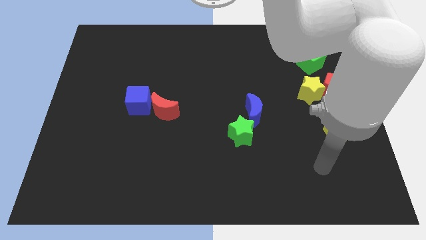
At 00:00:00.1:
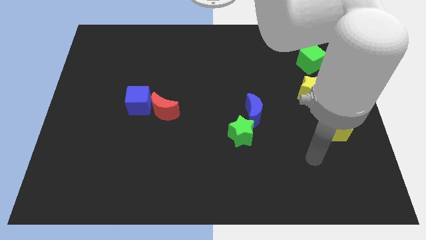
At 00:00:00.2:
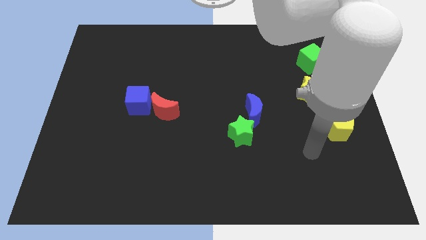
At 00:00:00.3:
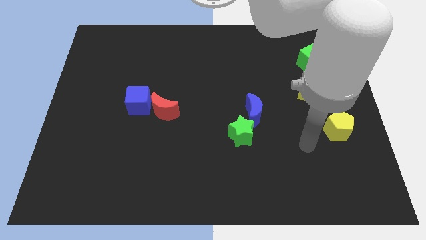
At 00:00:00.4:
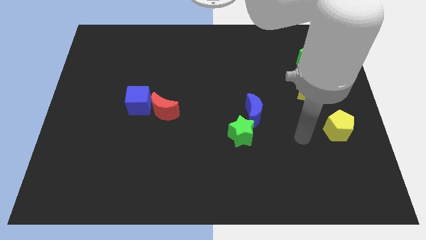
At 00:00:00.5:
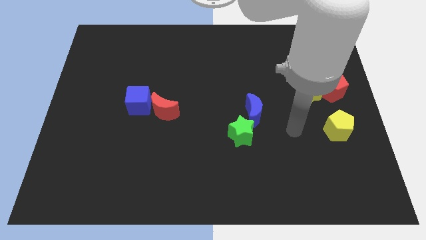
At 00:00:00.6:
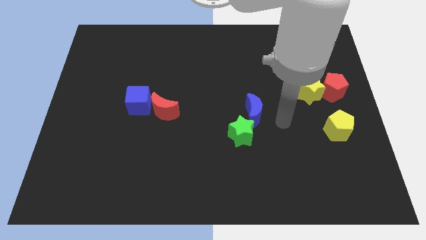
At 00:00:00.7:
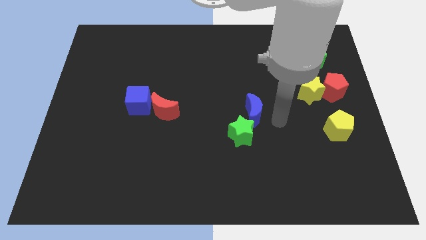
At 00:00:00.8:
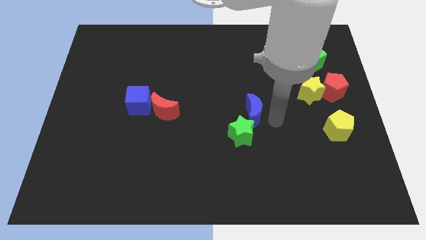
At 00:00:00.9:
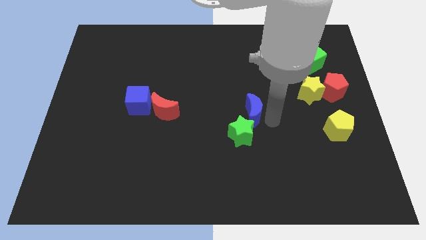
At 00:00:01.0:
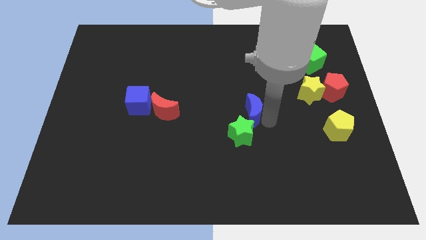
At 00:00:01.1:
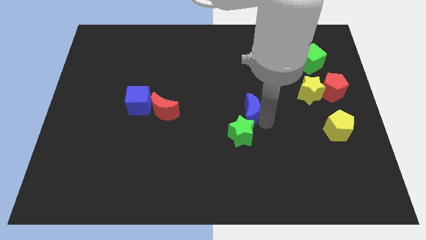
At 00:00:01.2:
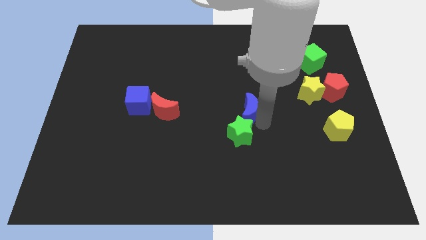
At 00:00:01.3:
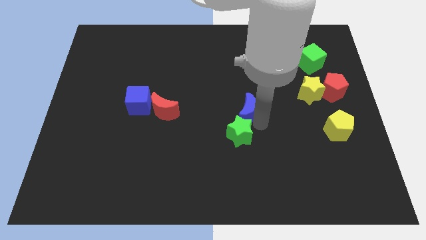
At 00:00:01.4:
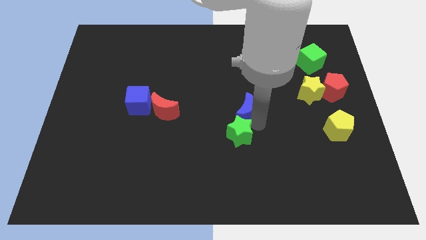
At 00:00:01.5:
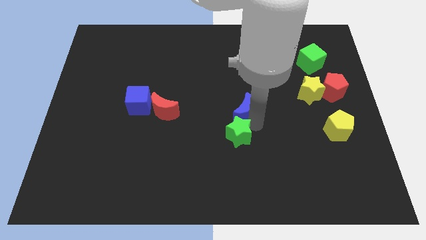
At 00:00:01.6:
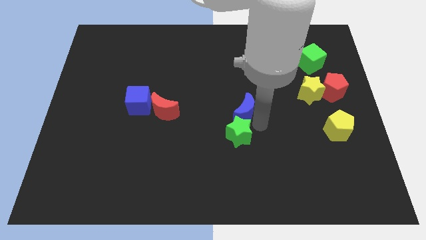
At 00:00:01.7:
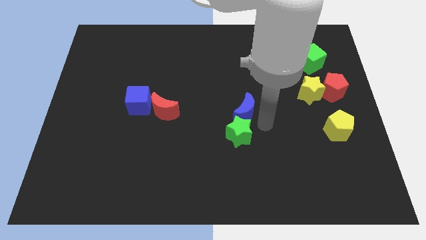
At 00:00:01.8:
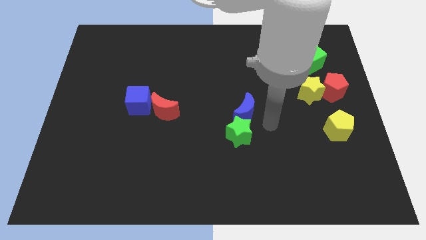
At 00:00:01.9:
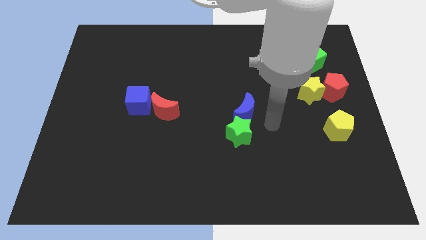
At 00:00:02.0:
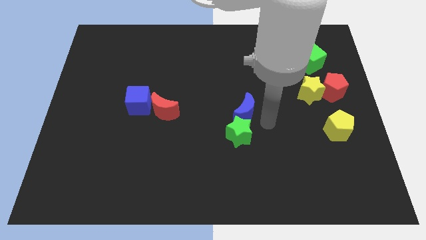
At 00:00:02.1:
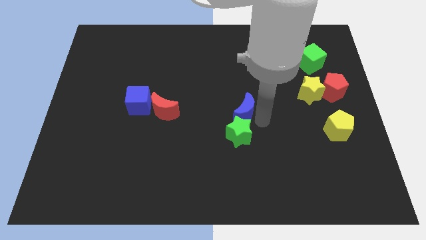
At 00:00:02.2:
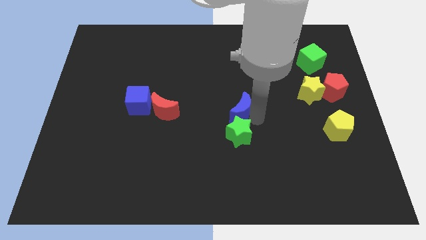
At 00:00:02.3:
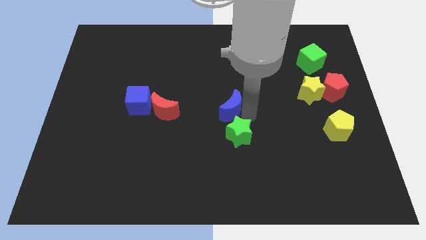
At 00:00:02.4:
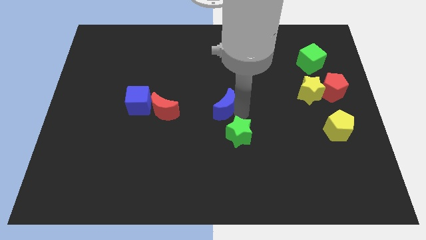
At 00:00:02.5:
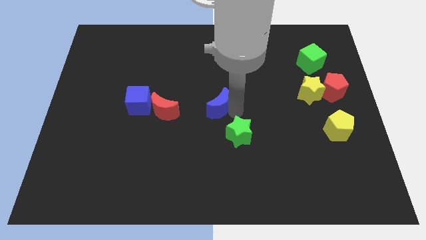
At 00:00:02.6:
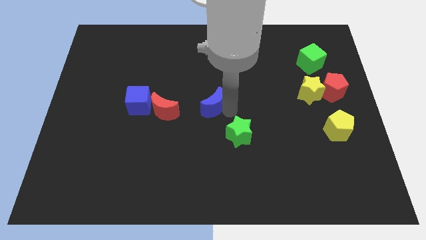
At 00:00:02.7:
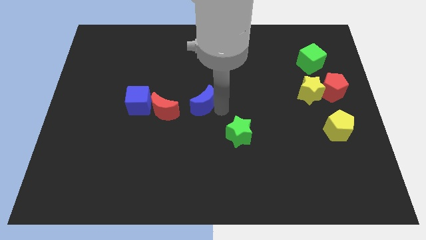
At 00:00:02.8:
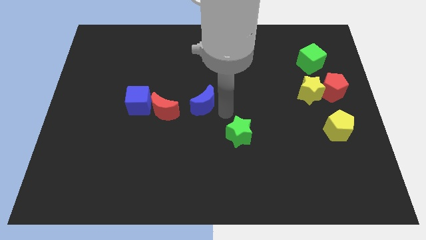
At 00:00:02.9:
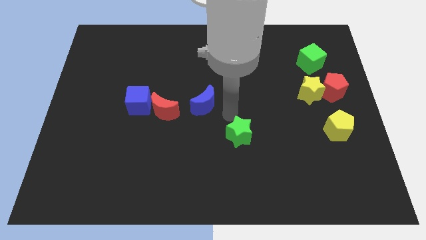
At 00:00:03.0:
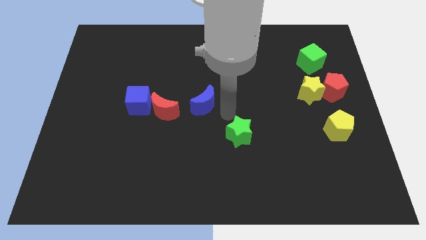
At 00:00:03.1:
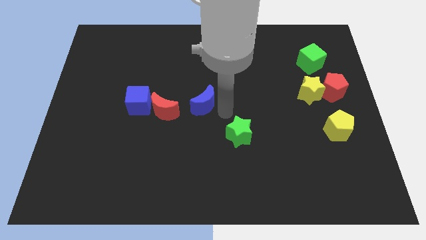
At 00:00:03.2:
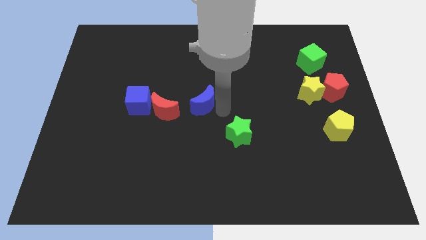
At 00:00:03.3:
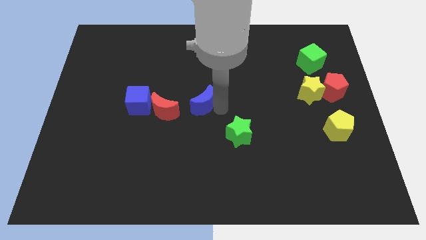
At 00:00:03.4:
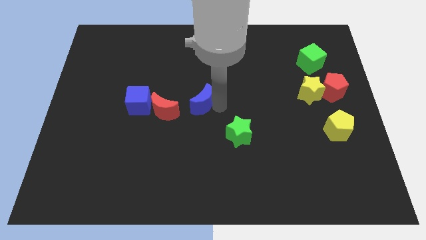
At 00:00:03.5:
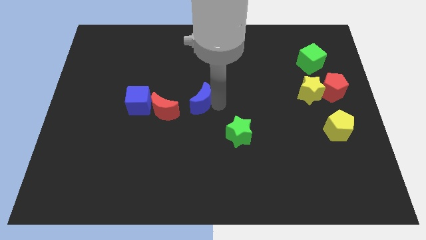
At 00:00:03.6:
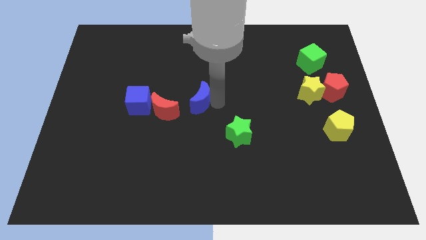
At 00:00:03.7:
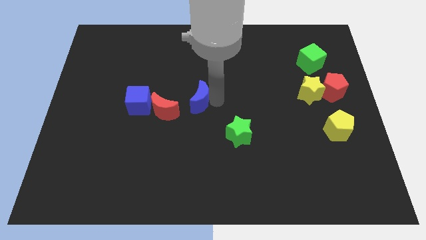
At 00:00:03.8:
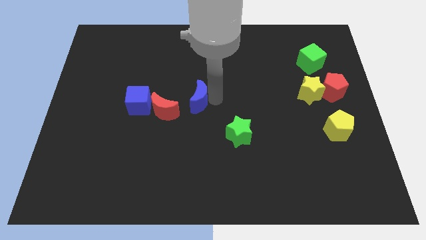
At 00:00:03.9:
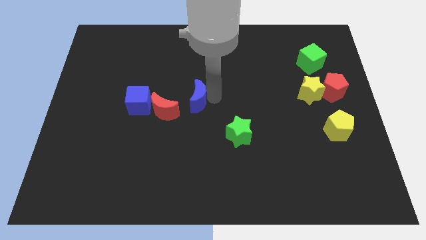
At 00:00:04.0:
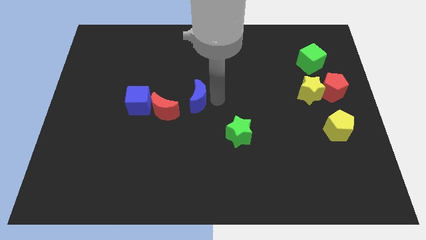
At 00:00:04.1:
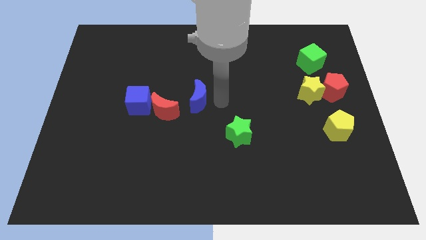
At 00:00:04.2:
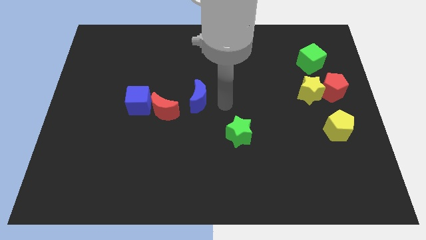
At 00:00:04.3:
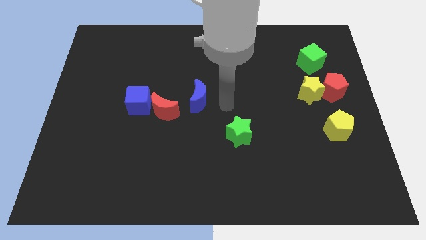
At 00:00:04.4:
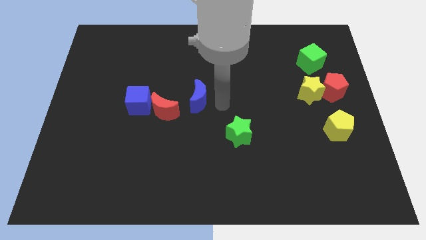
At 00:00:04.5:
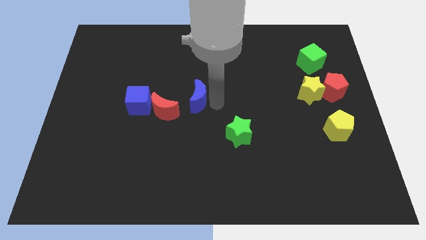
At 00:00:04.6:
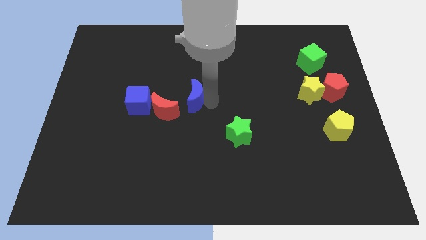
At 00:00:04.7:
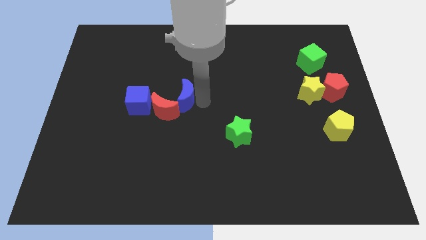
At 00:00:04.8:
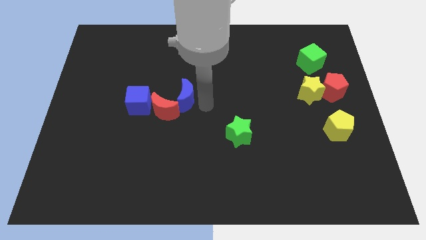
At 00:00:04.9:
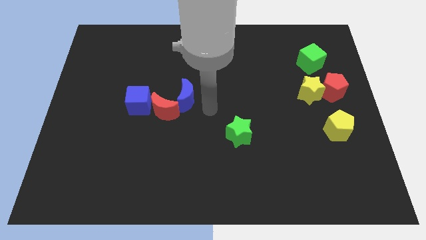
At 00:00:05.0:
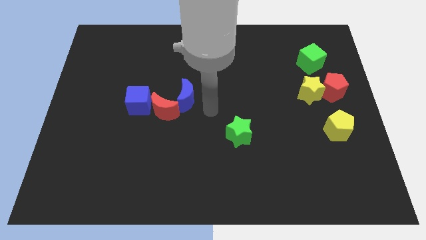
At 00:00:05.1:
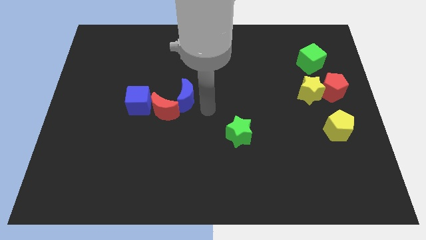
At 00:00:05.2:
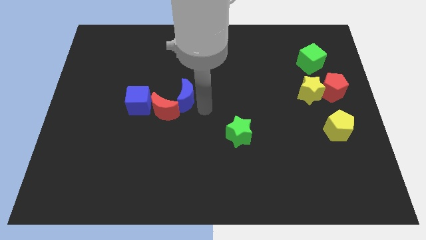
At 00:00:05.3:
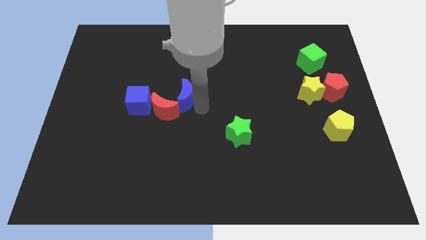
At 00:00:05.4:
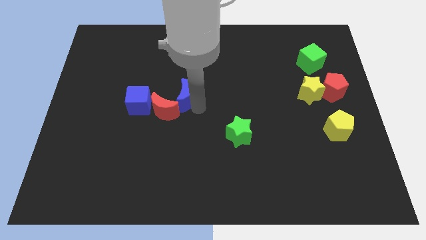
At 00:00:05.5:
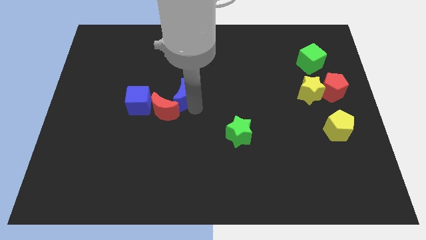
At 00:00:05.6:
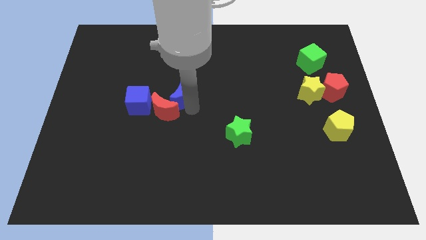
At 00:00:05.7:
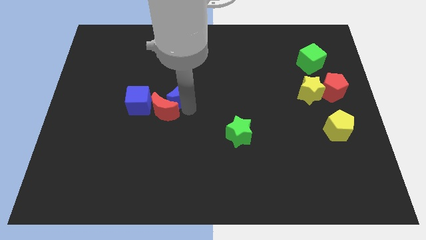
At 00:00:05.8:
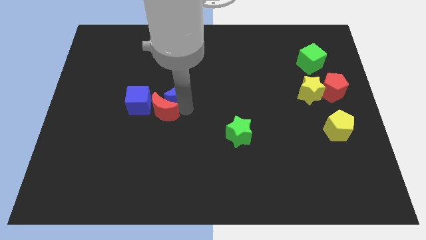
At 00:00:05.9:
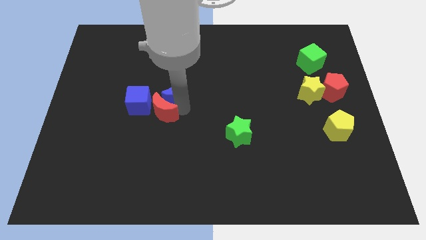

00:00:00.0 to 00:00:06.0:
slide the blue moon to the top right side of the blue cube
